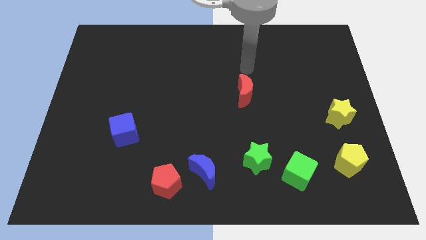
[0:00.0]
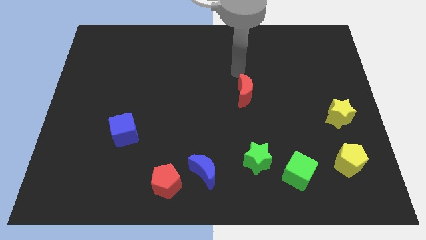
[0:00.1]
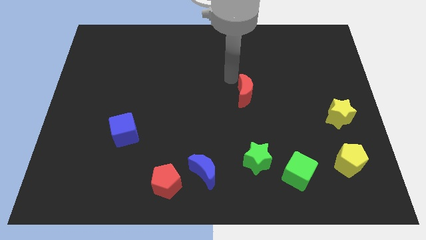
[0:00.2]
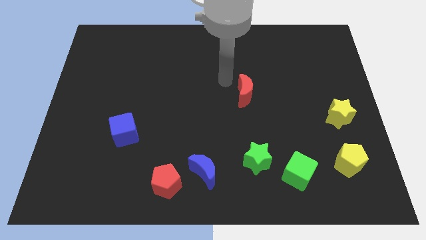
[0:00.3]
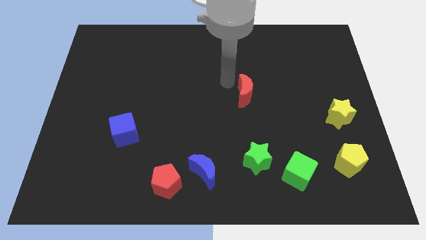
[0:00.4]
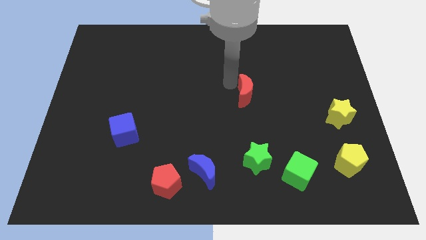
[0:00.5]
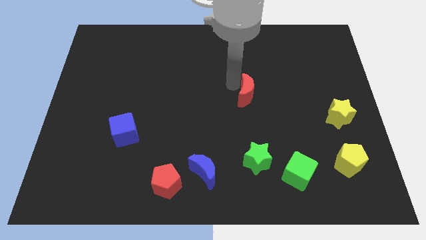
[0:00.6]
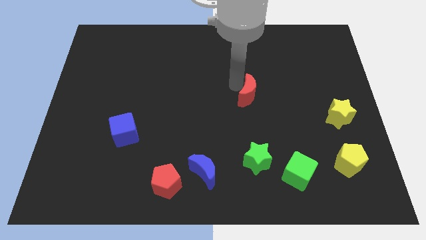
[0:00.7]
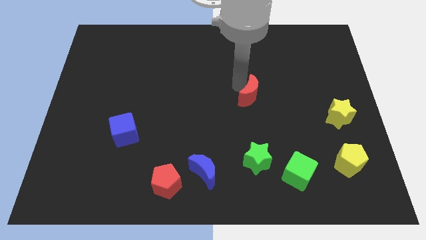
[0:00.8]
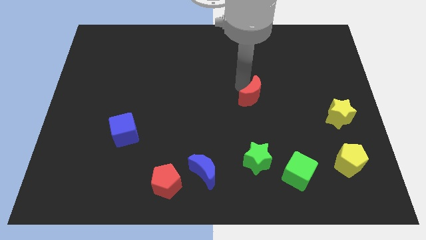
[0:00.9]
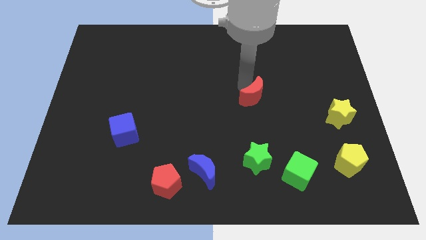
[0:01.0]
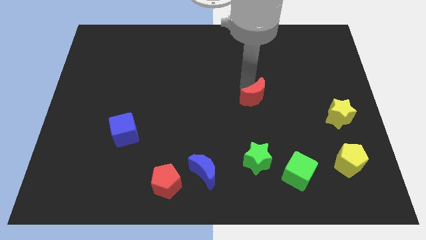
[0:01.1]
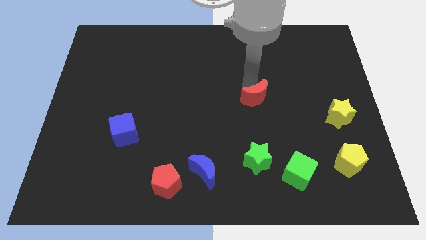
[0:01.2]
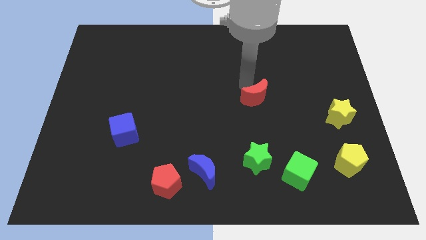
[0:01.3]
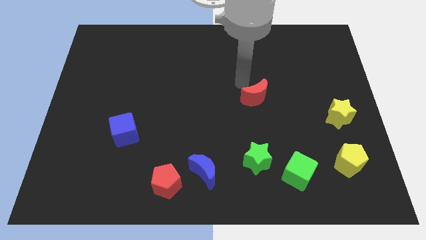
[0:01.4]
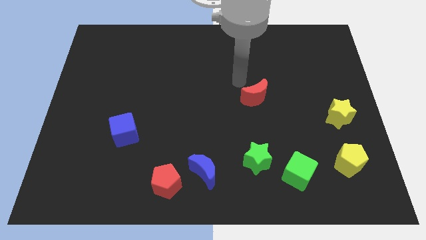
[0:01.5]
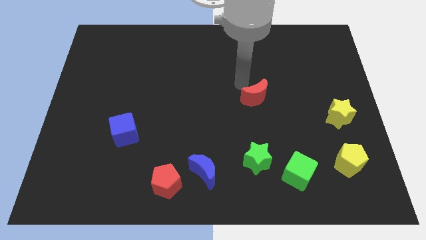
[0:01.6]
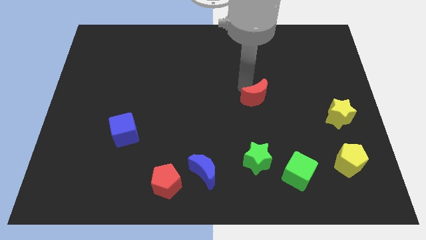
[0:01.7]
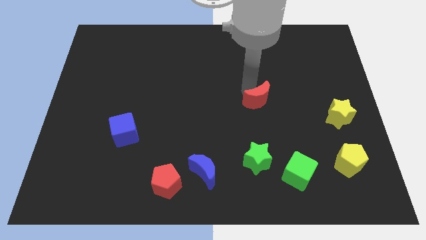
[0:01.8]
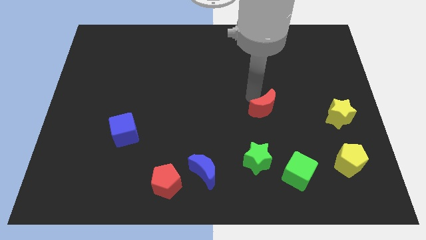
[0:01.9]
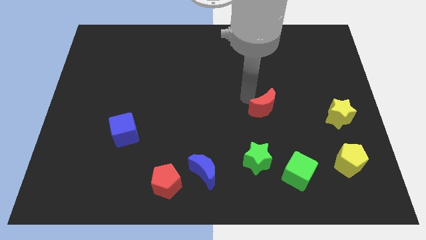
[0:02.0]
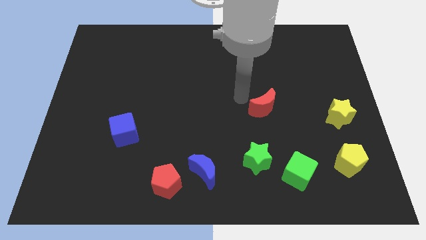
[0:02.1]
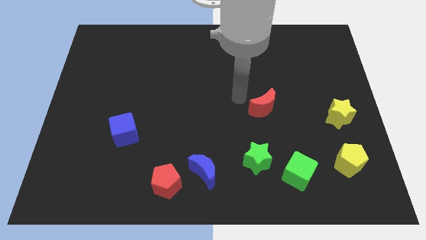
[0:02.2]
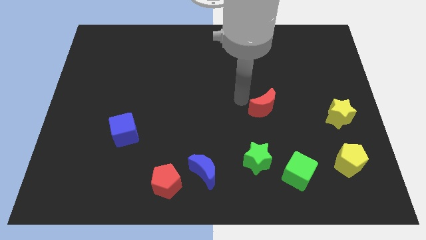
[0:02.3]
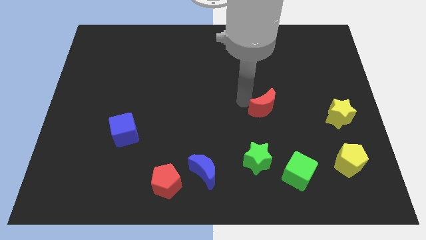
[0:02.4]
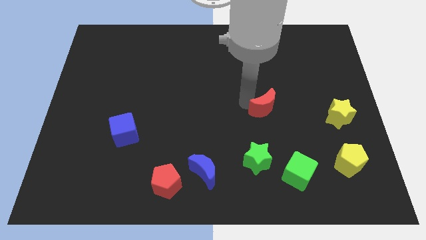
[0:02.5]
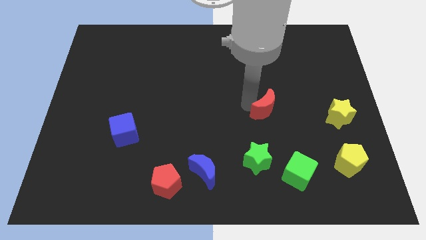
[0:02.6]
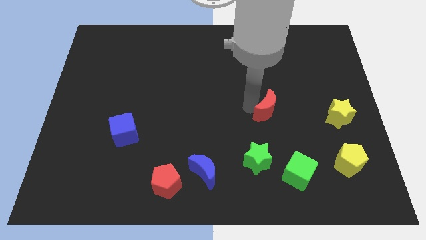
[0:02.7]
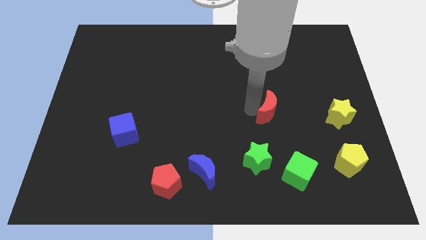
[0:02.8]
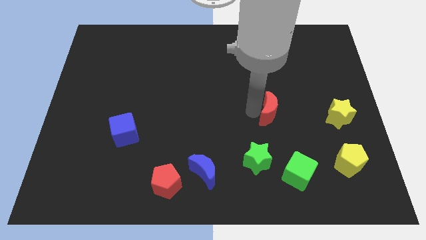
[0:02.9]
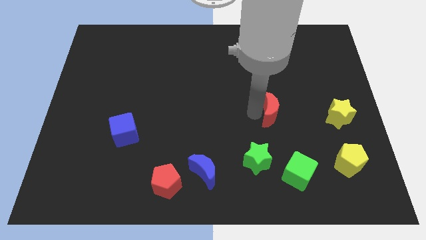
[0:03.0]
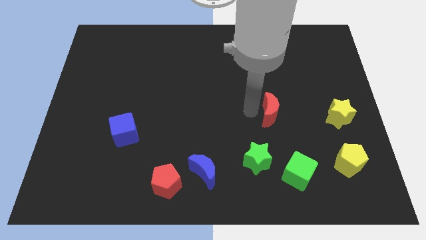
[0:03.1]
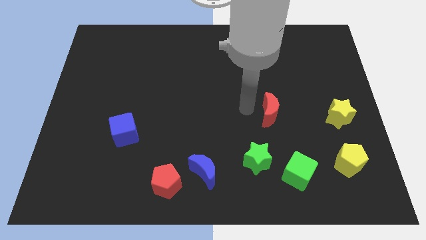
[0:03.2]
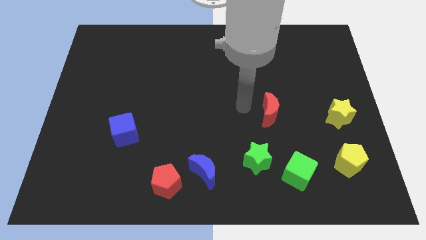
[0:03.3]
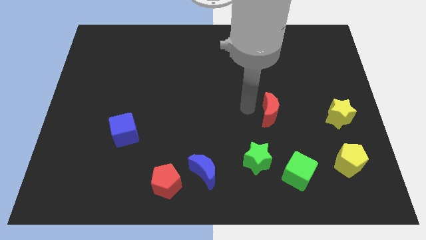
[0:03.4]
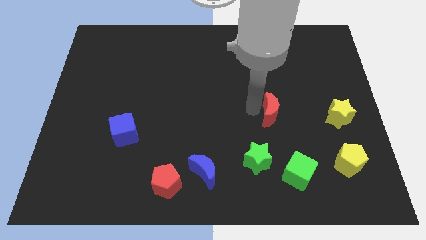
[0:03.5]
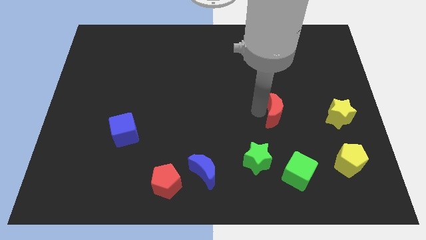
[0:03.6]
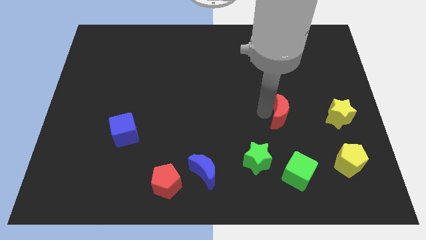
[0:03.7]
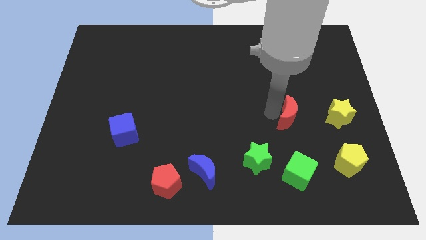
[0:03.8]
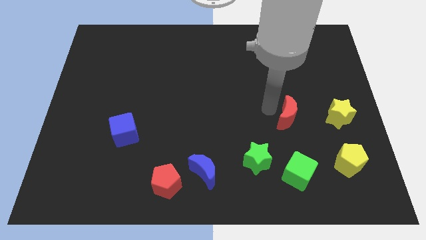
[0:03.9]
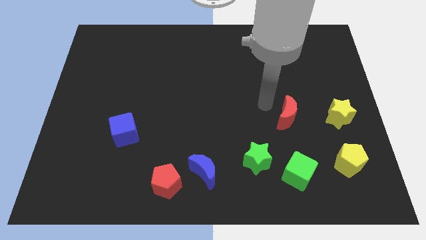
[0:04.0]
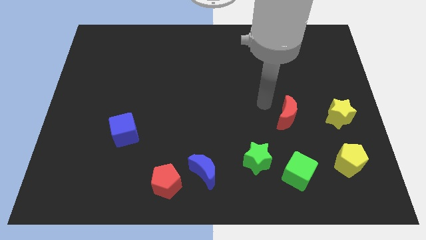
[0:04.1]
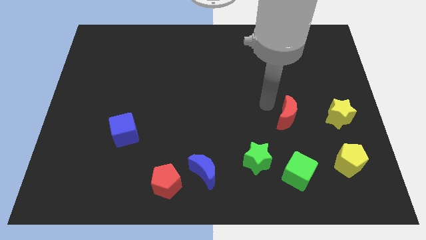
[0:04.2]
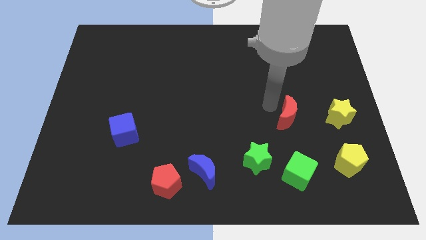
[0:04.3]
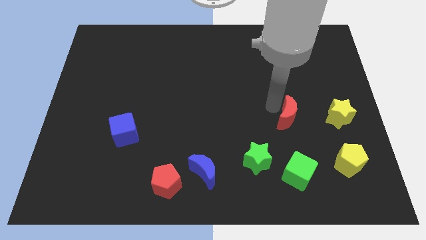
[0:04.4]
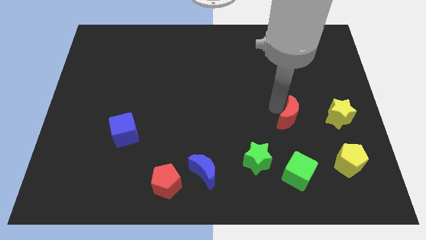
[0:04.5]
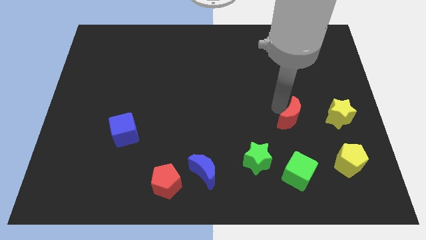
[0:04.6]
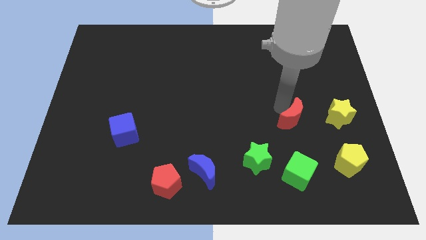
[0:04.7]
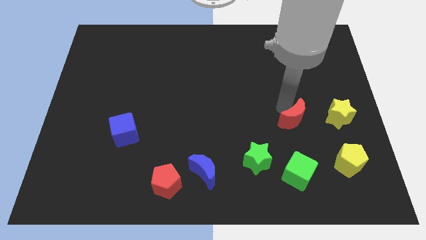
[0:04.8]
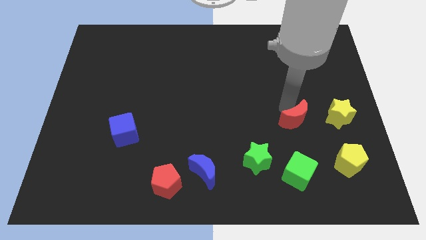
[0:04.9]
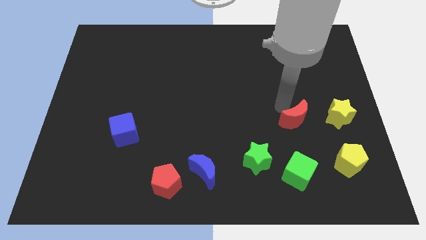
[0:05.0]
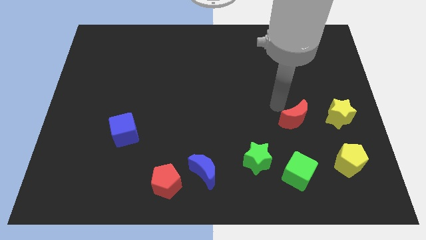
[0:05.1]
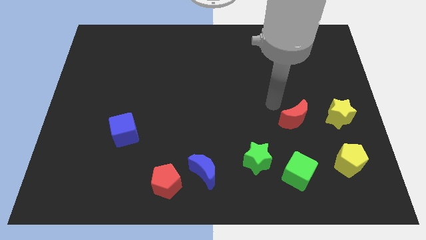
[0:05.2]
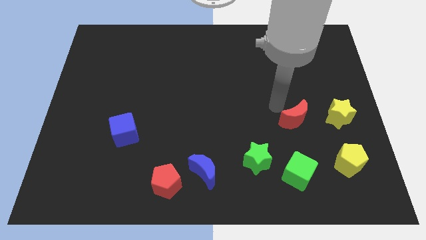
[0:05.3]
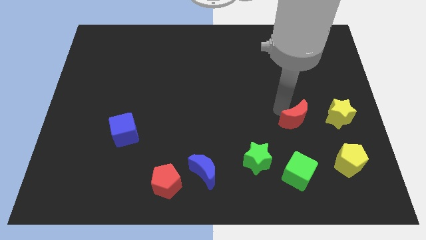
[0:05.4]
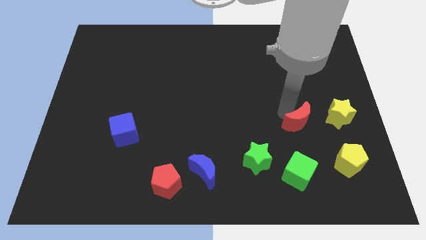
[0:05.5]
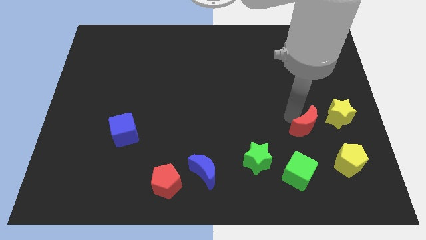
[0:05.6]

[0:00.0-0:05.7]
put the red moon to the top left of the yellow pentagon

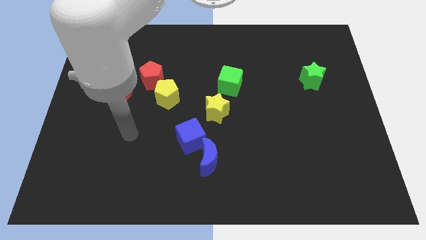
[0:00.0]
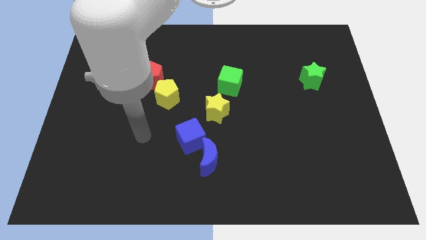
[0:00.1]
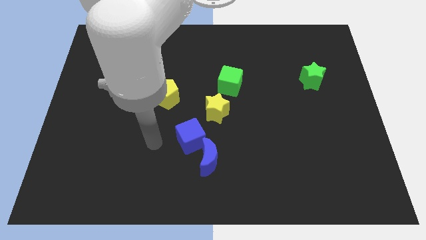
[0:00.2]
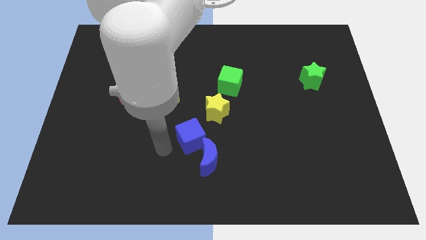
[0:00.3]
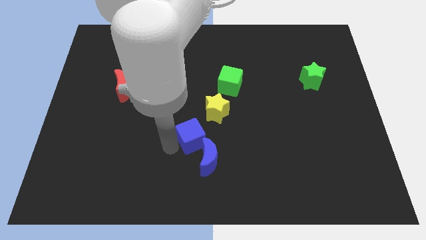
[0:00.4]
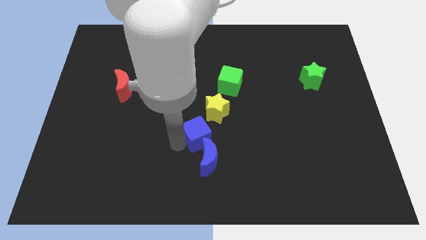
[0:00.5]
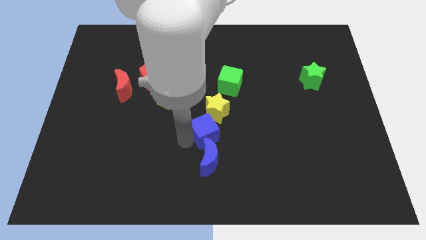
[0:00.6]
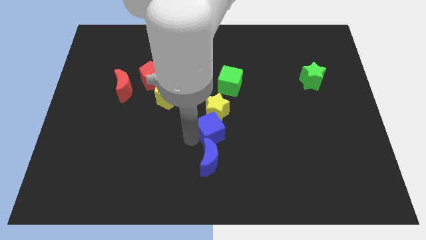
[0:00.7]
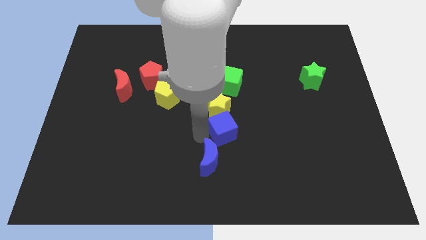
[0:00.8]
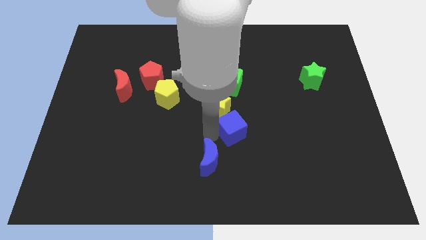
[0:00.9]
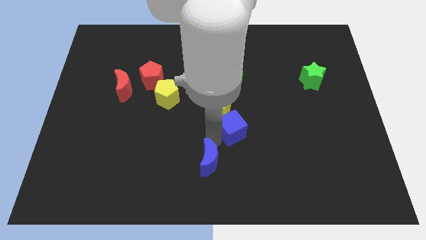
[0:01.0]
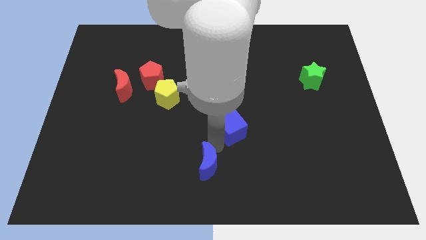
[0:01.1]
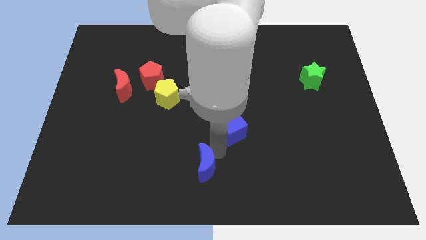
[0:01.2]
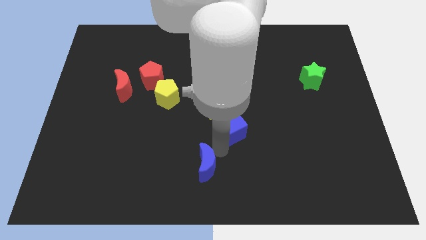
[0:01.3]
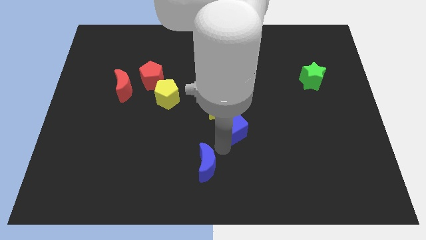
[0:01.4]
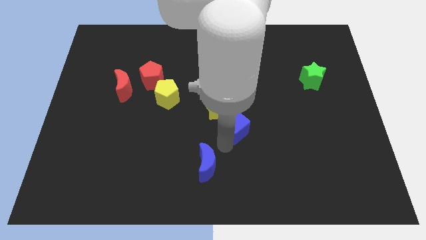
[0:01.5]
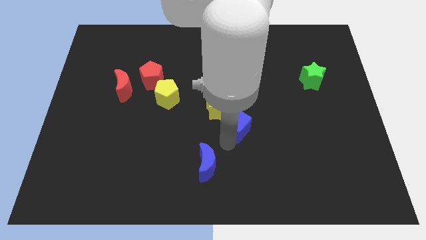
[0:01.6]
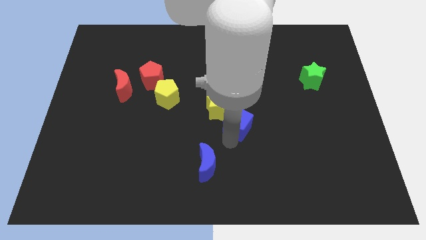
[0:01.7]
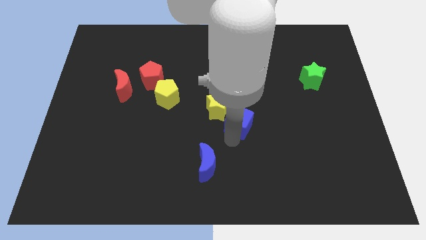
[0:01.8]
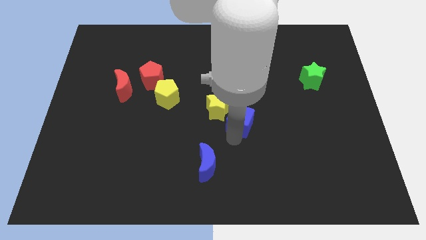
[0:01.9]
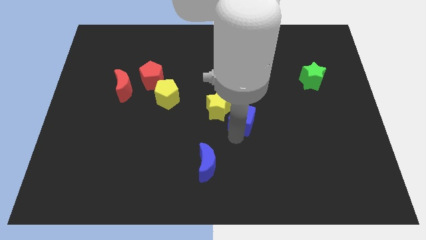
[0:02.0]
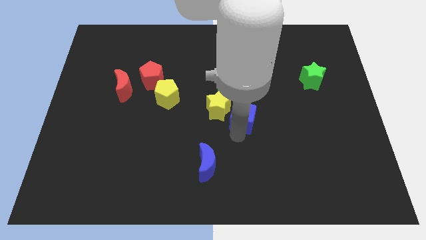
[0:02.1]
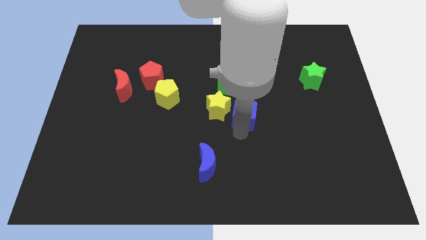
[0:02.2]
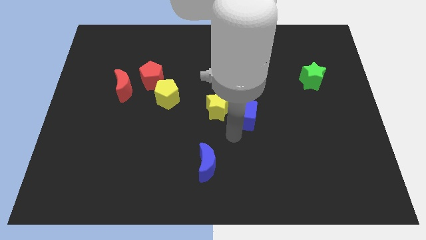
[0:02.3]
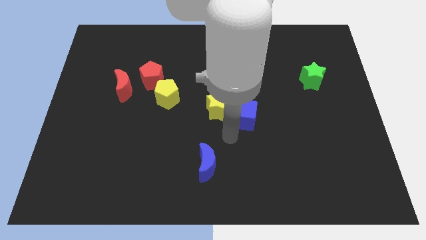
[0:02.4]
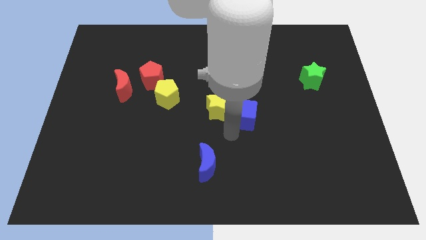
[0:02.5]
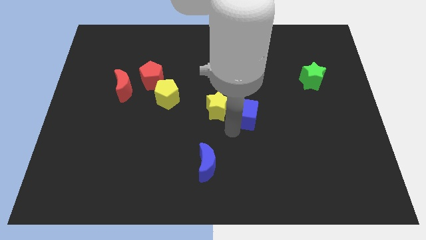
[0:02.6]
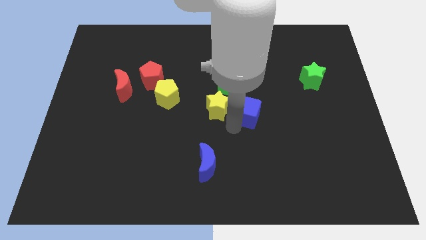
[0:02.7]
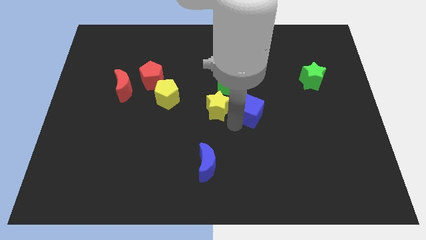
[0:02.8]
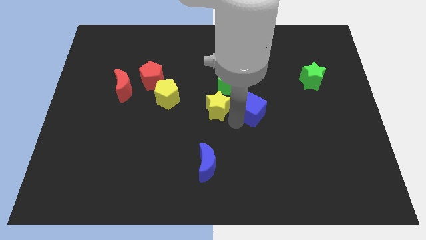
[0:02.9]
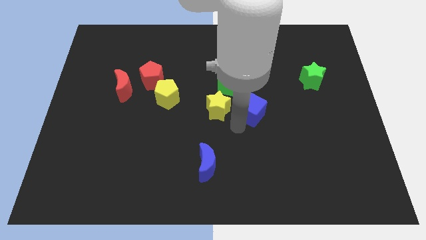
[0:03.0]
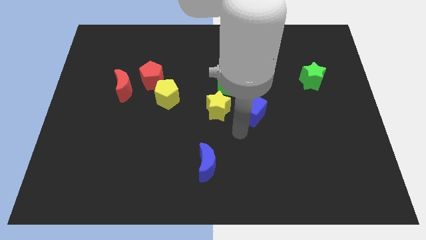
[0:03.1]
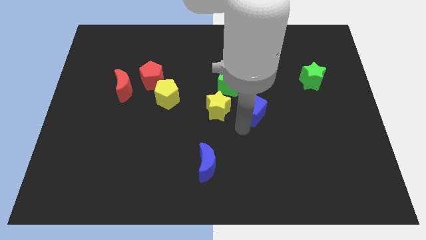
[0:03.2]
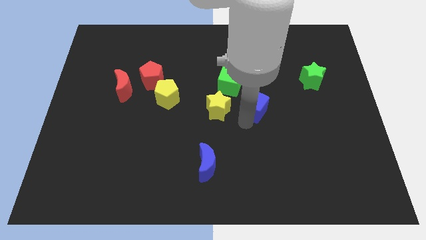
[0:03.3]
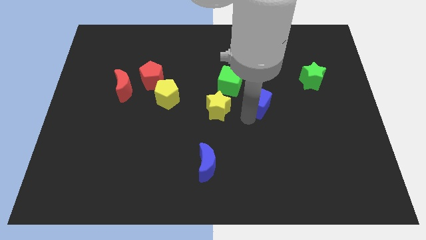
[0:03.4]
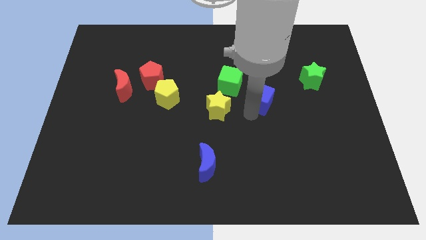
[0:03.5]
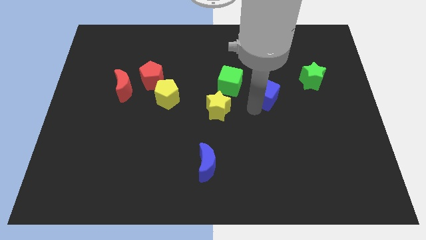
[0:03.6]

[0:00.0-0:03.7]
move the blue cube right of the green cube
